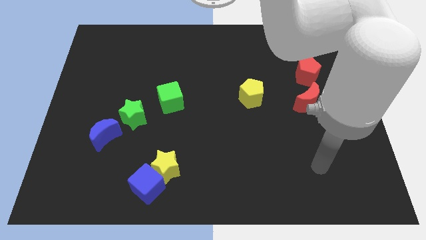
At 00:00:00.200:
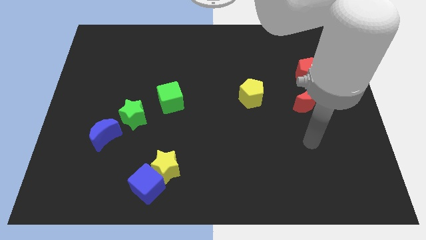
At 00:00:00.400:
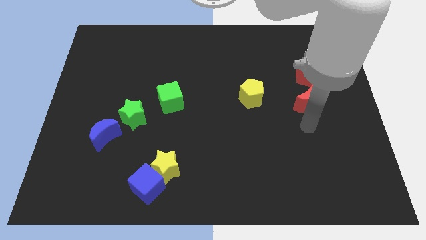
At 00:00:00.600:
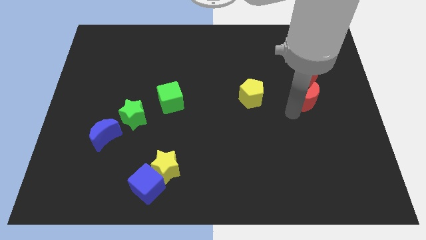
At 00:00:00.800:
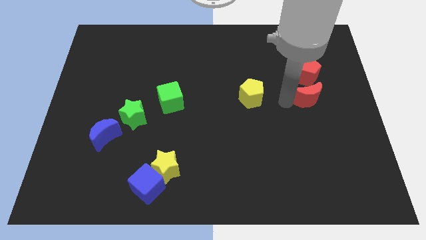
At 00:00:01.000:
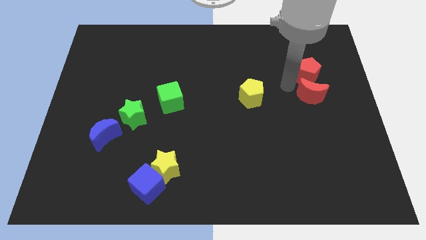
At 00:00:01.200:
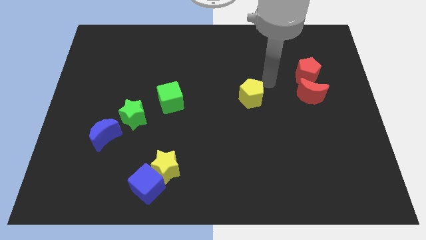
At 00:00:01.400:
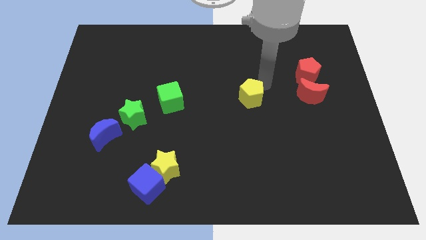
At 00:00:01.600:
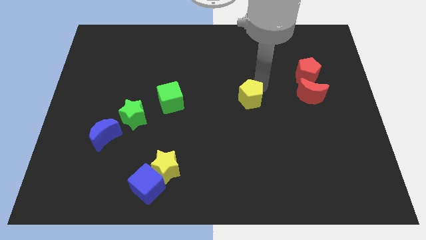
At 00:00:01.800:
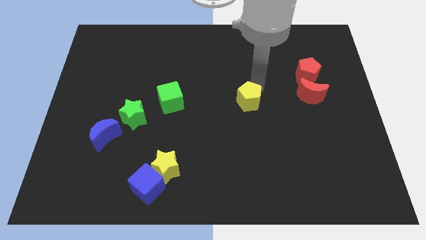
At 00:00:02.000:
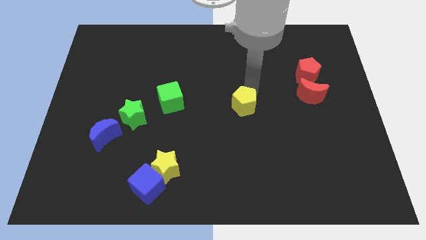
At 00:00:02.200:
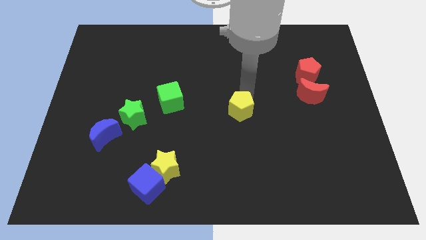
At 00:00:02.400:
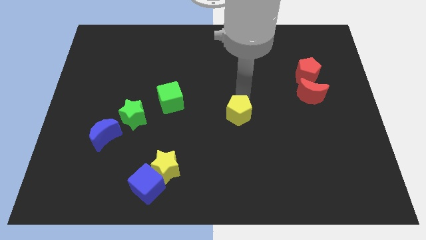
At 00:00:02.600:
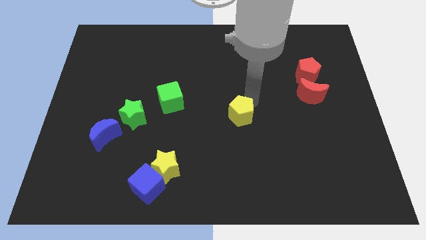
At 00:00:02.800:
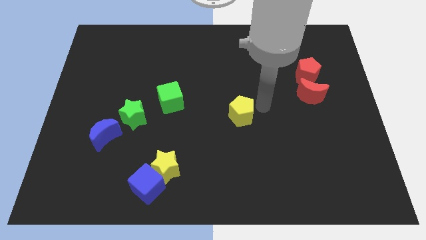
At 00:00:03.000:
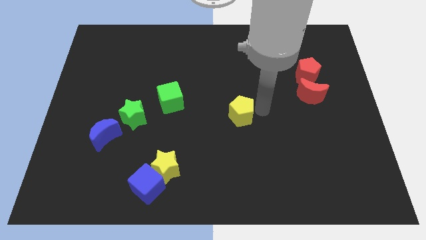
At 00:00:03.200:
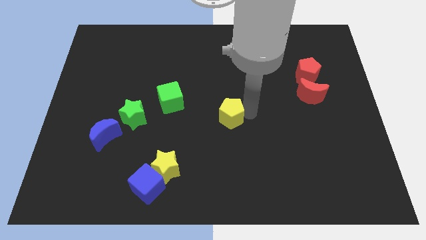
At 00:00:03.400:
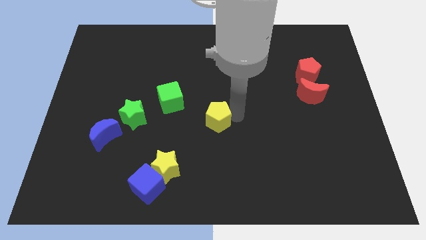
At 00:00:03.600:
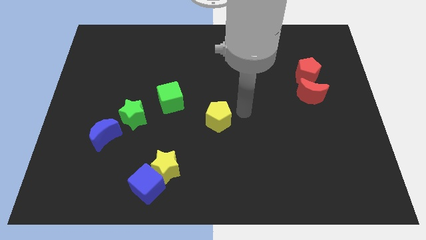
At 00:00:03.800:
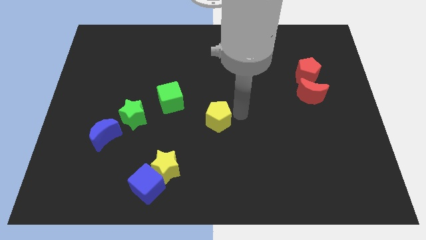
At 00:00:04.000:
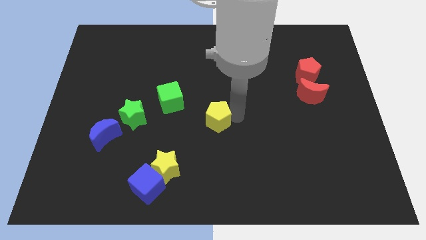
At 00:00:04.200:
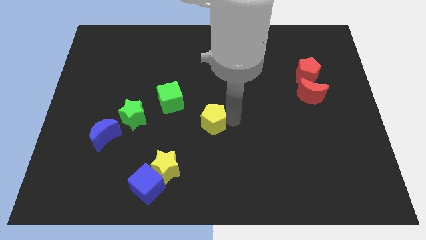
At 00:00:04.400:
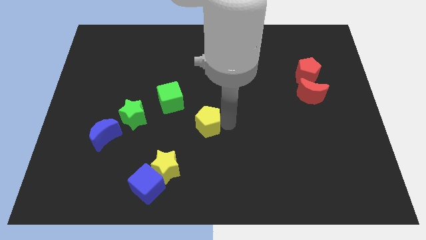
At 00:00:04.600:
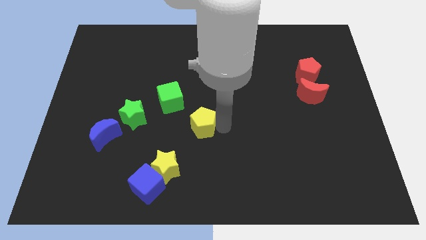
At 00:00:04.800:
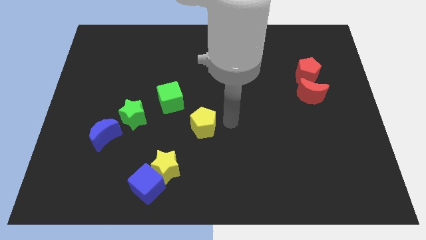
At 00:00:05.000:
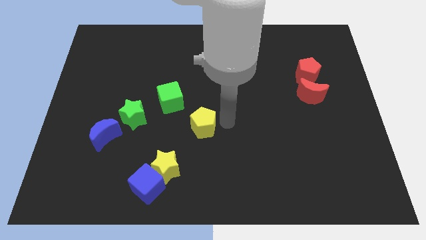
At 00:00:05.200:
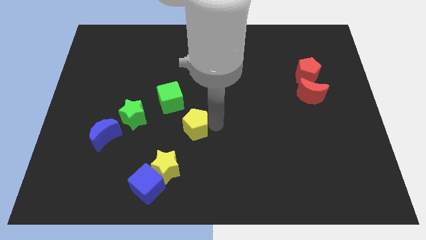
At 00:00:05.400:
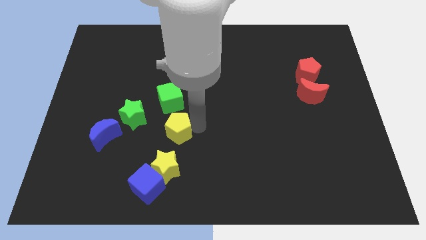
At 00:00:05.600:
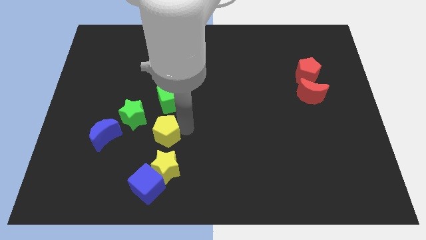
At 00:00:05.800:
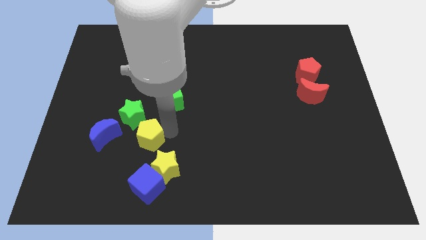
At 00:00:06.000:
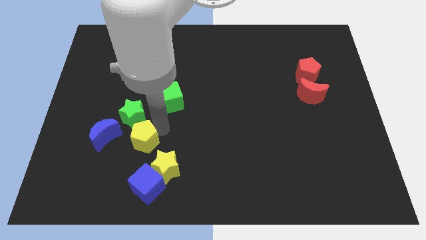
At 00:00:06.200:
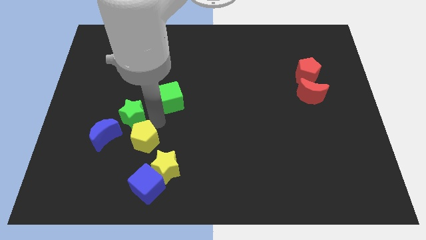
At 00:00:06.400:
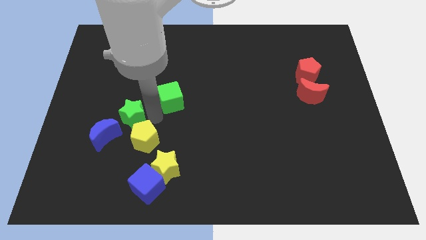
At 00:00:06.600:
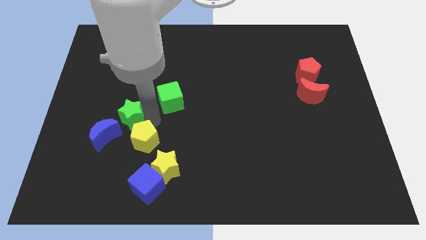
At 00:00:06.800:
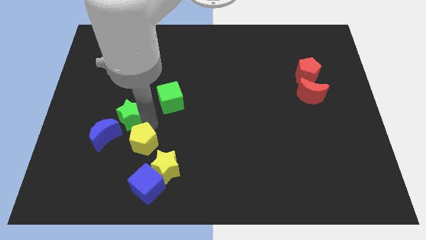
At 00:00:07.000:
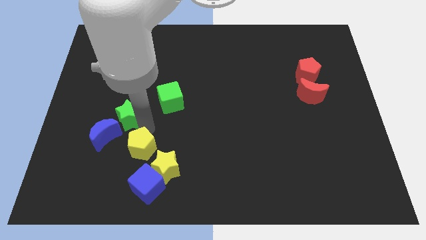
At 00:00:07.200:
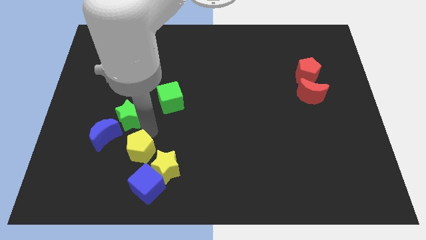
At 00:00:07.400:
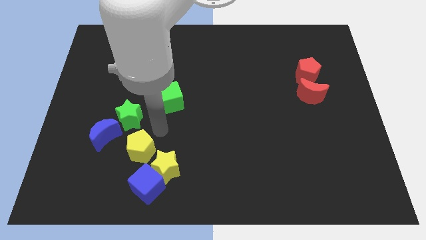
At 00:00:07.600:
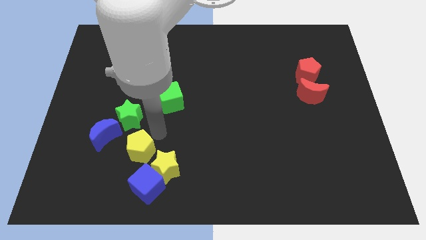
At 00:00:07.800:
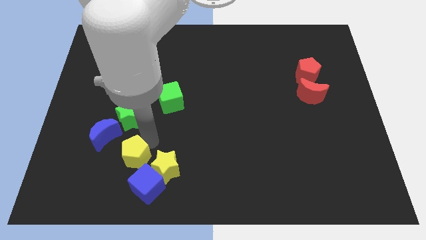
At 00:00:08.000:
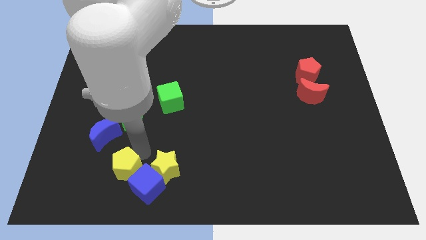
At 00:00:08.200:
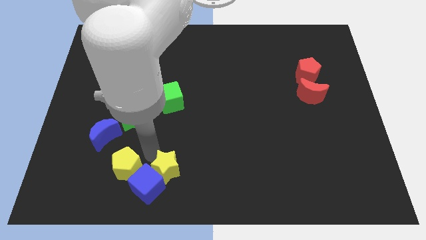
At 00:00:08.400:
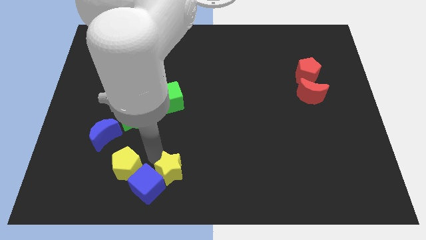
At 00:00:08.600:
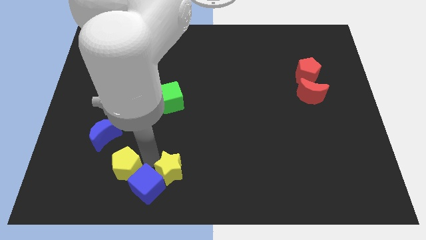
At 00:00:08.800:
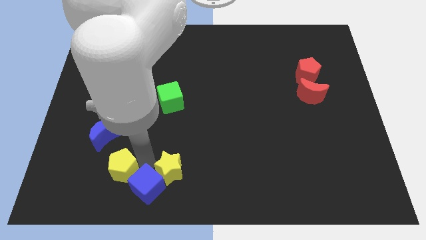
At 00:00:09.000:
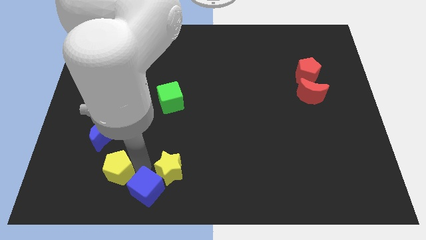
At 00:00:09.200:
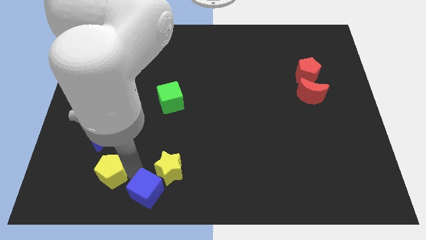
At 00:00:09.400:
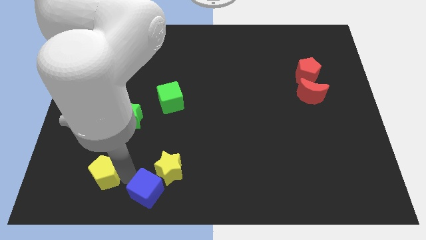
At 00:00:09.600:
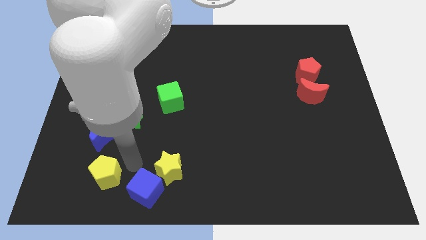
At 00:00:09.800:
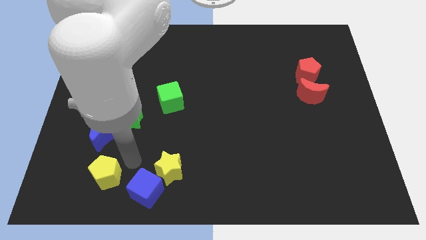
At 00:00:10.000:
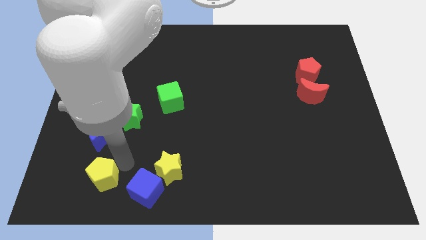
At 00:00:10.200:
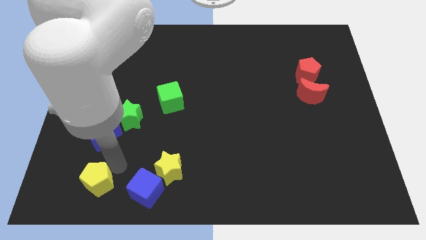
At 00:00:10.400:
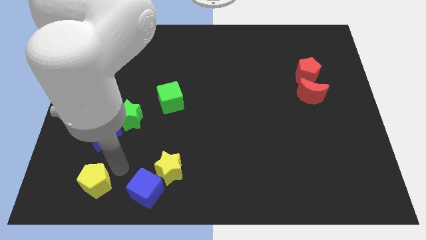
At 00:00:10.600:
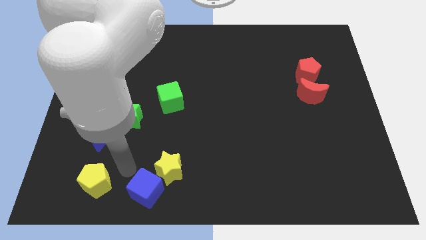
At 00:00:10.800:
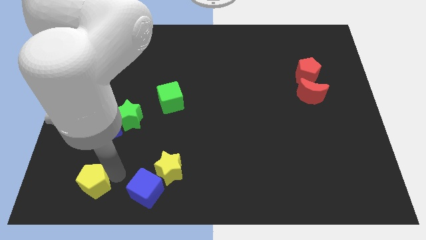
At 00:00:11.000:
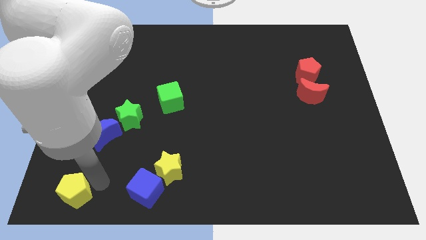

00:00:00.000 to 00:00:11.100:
put the yellow pentagon to the bottom left of the board

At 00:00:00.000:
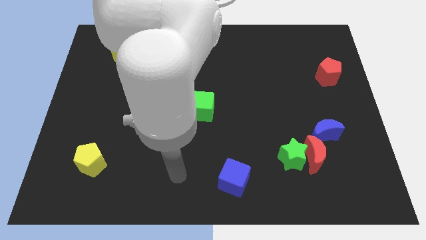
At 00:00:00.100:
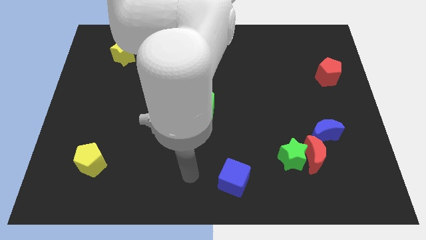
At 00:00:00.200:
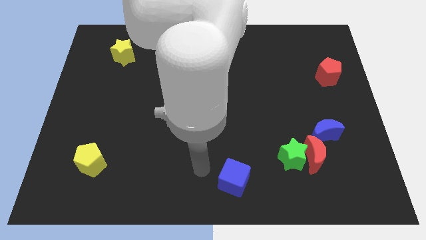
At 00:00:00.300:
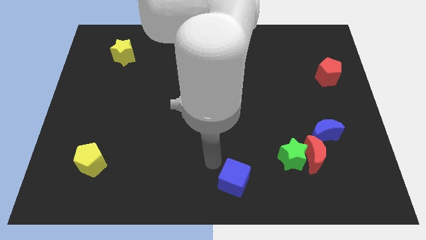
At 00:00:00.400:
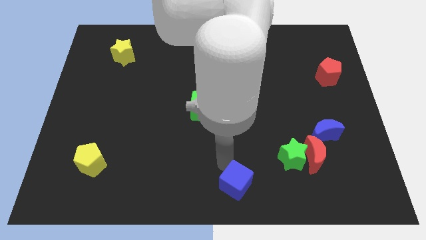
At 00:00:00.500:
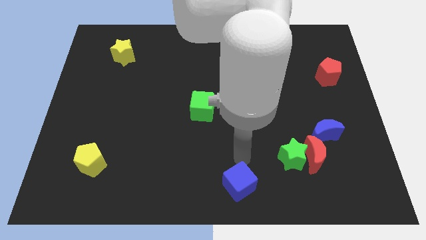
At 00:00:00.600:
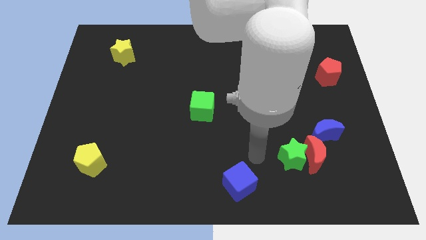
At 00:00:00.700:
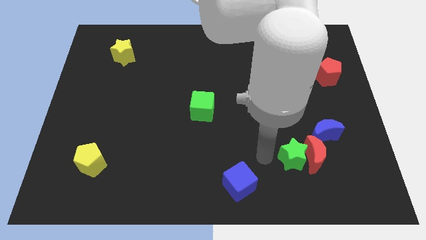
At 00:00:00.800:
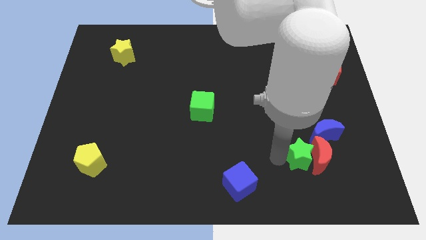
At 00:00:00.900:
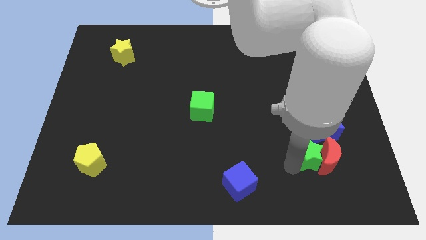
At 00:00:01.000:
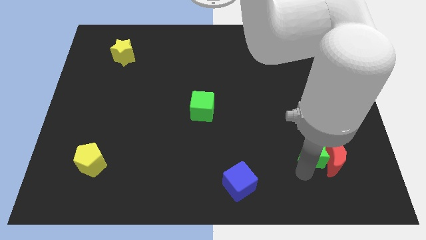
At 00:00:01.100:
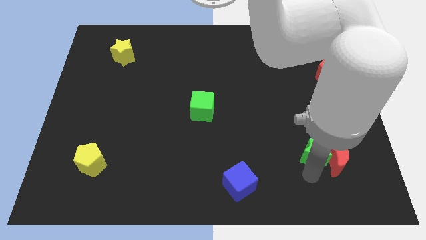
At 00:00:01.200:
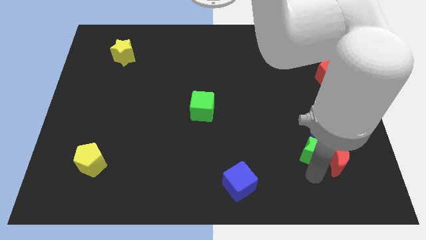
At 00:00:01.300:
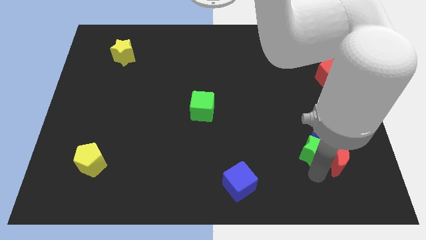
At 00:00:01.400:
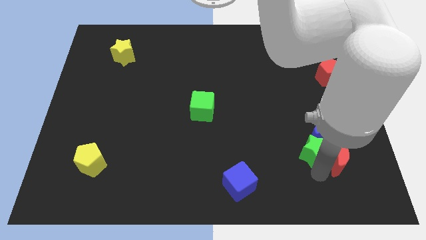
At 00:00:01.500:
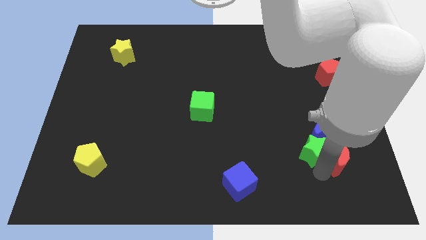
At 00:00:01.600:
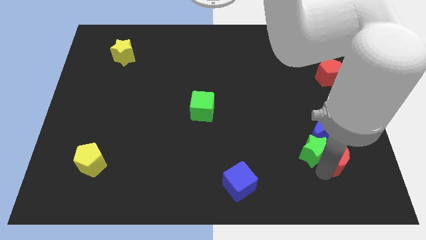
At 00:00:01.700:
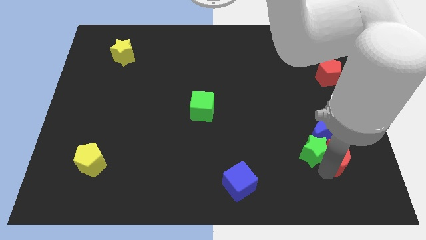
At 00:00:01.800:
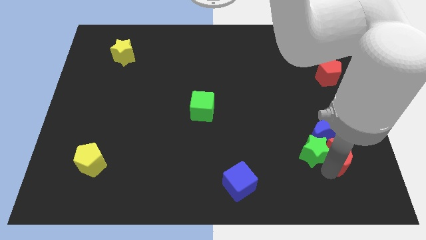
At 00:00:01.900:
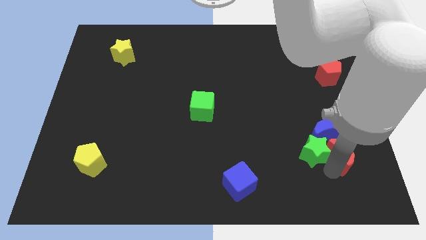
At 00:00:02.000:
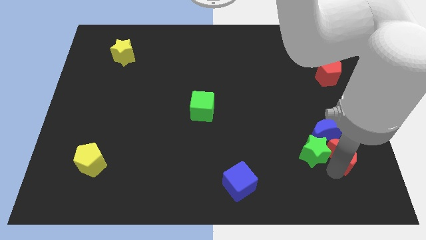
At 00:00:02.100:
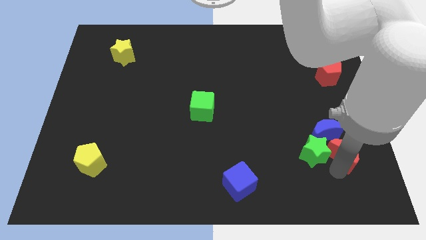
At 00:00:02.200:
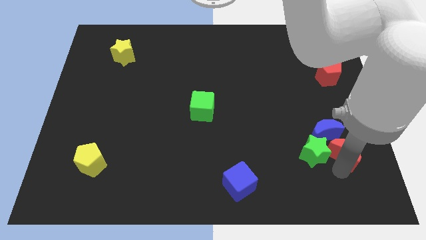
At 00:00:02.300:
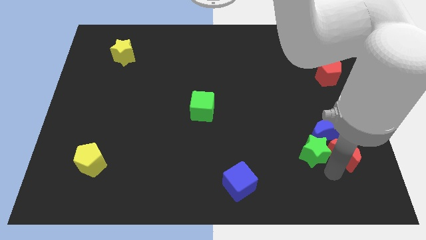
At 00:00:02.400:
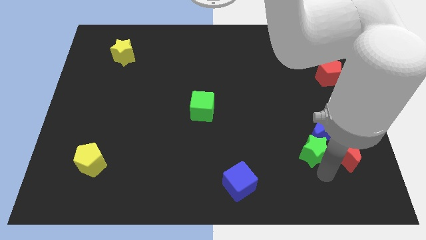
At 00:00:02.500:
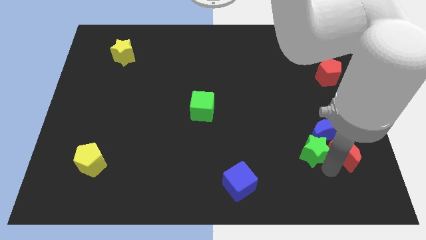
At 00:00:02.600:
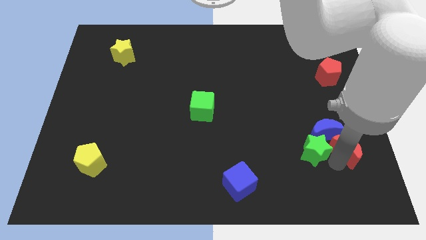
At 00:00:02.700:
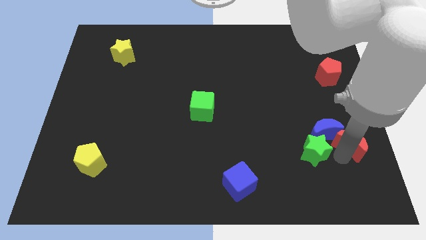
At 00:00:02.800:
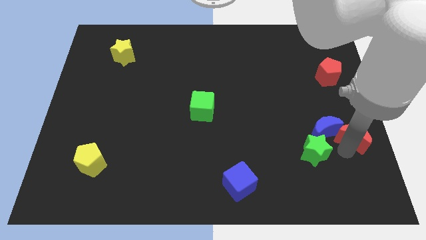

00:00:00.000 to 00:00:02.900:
move the red moon to the right side
